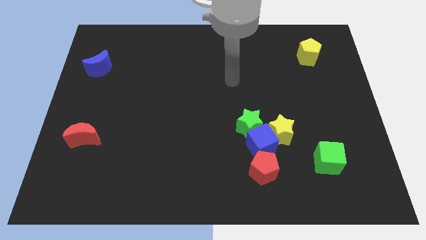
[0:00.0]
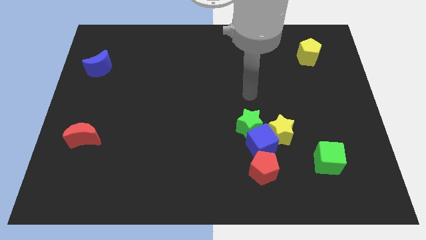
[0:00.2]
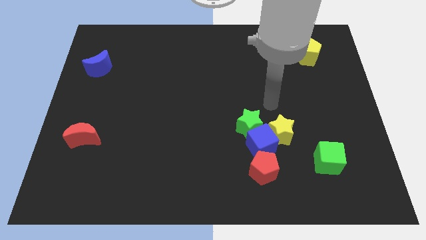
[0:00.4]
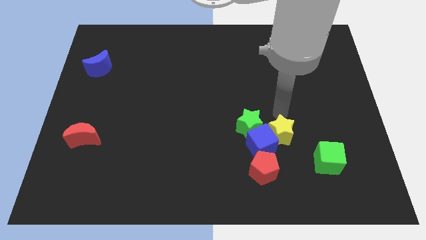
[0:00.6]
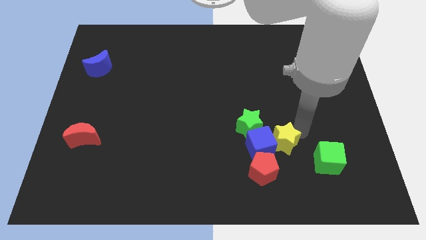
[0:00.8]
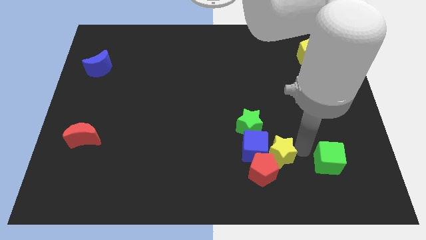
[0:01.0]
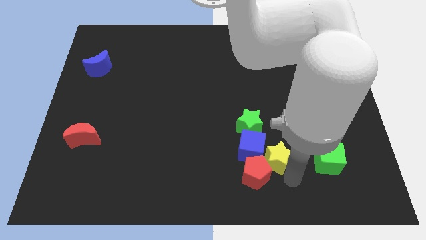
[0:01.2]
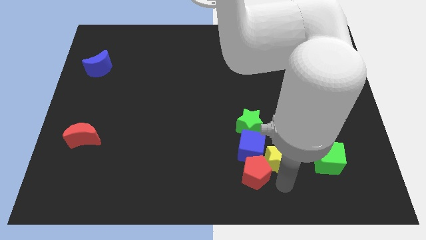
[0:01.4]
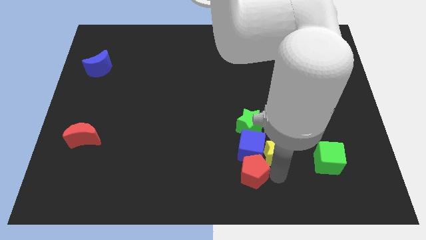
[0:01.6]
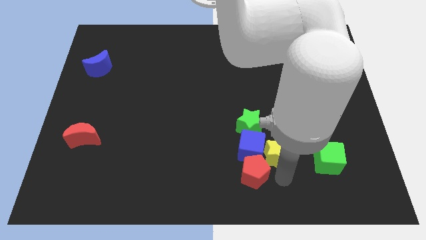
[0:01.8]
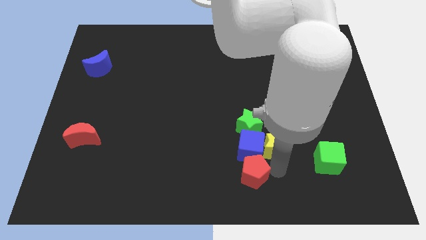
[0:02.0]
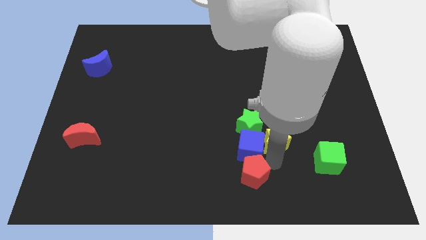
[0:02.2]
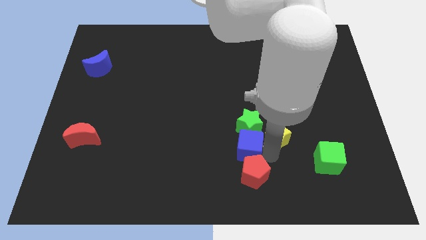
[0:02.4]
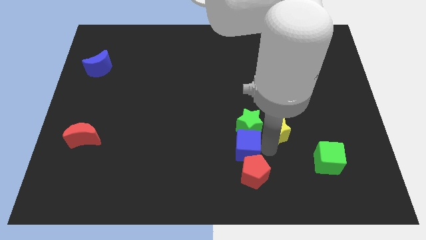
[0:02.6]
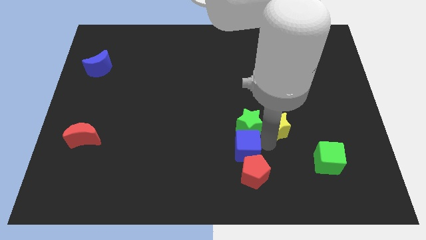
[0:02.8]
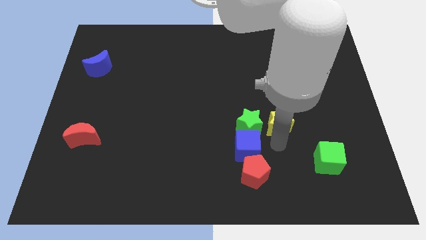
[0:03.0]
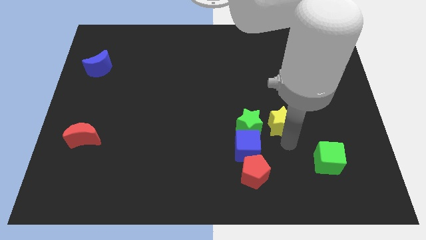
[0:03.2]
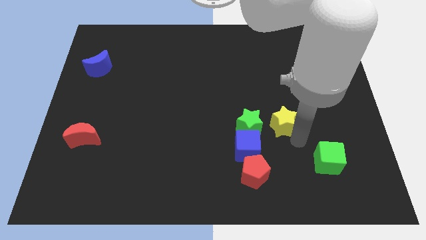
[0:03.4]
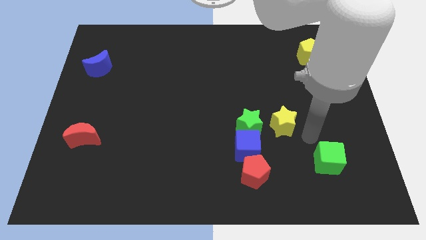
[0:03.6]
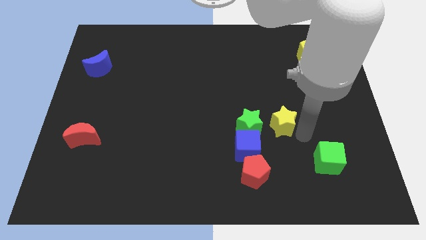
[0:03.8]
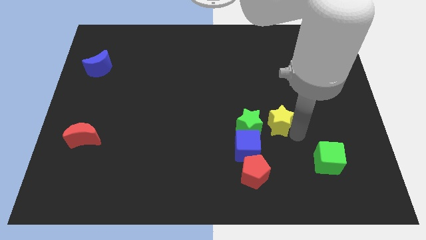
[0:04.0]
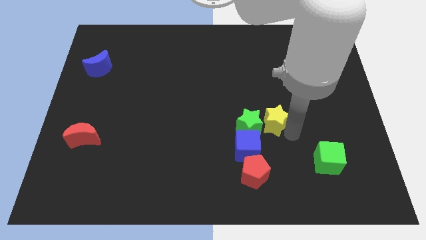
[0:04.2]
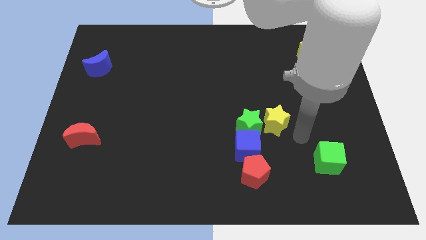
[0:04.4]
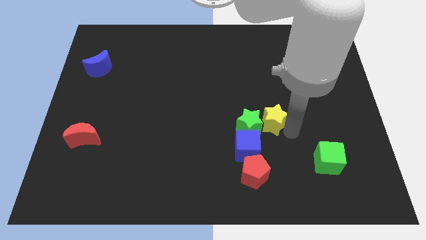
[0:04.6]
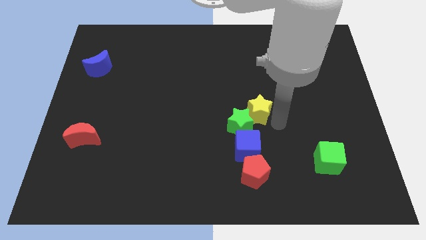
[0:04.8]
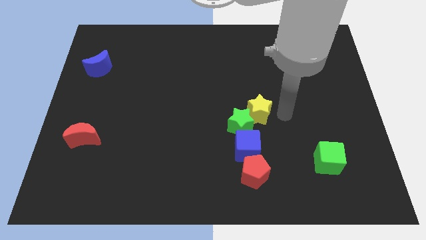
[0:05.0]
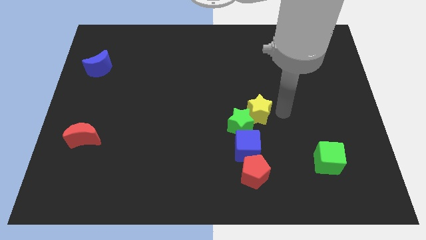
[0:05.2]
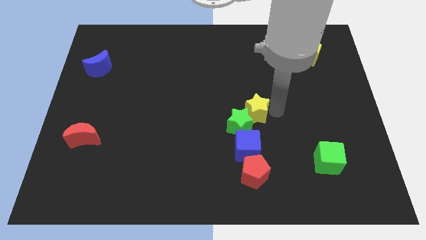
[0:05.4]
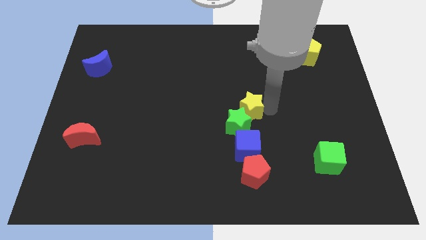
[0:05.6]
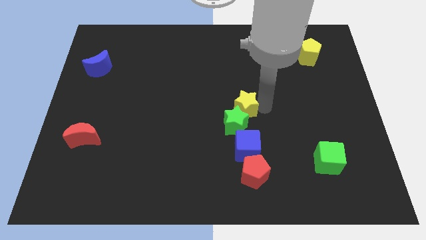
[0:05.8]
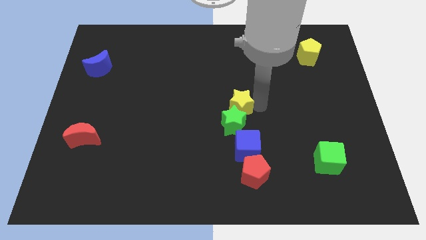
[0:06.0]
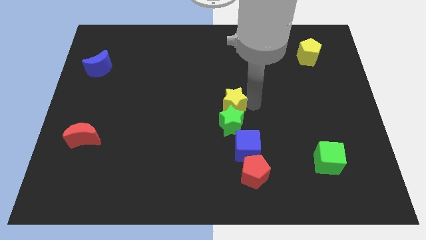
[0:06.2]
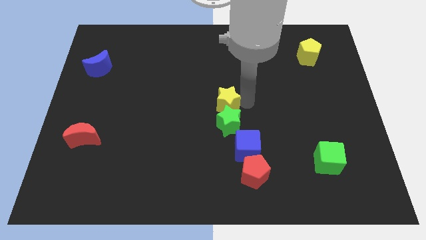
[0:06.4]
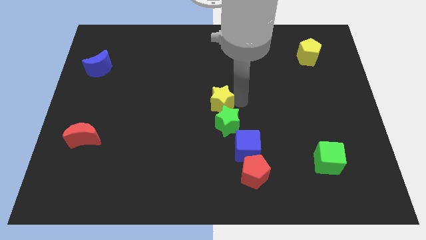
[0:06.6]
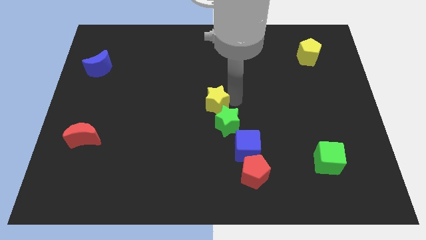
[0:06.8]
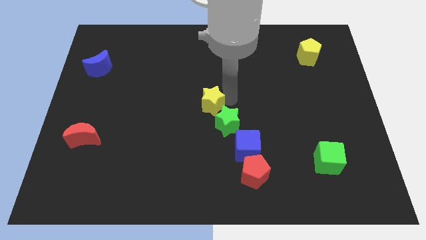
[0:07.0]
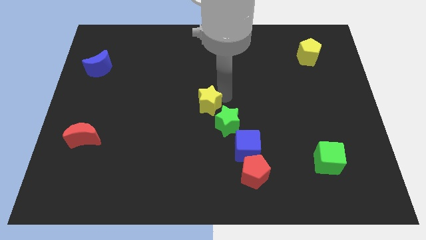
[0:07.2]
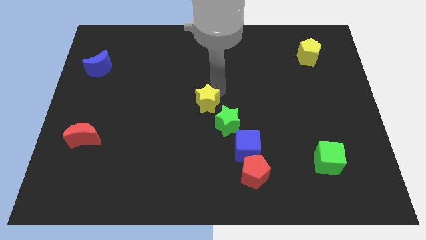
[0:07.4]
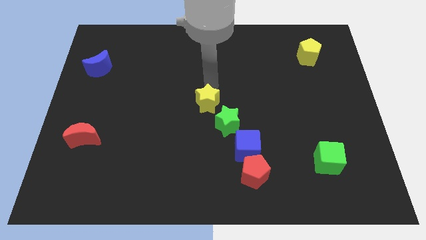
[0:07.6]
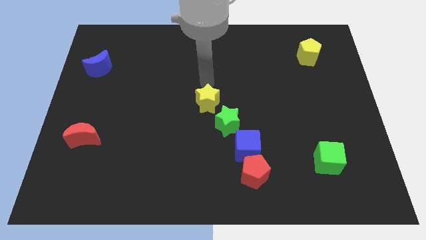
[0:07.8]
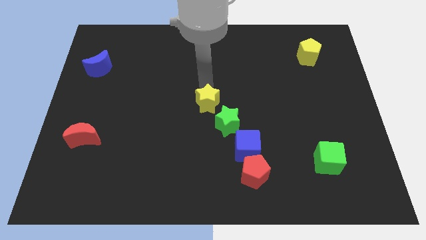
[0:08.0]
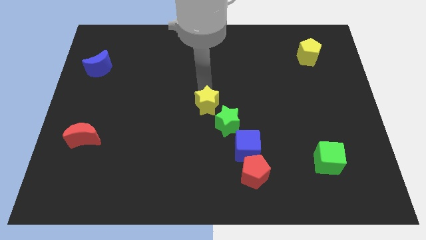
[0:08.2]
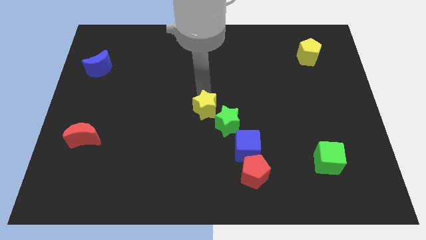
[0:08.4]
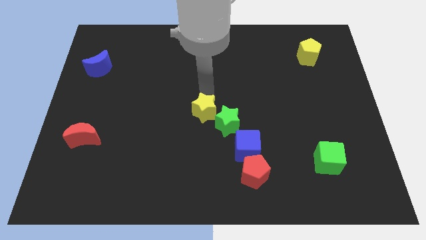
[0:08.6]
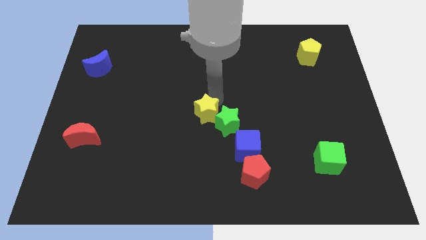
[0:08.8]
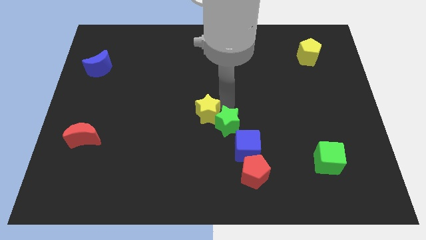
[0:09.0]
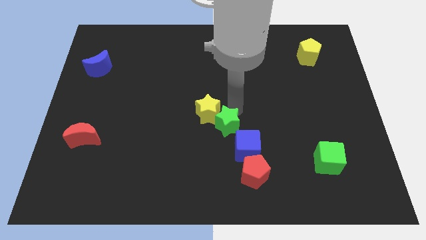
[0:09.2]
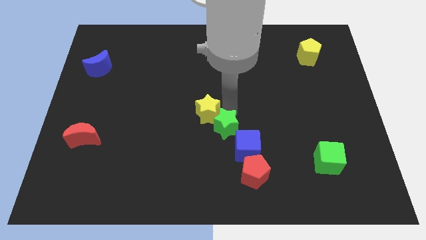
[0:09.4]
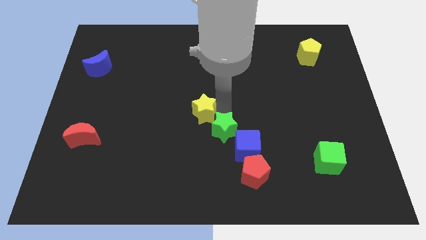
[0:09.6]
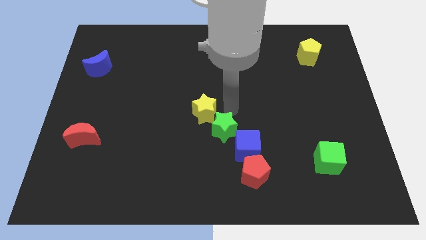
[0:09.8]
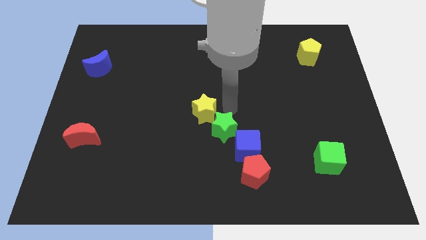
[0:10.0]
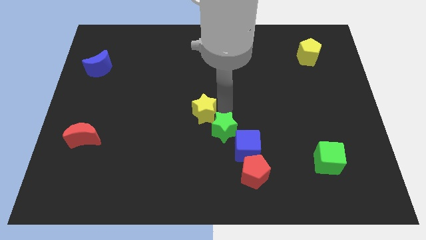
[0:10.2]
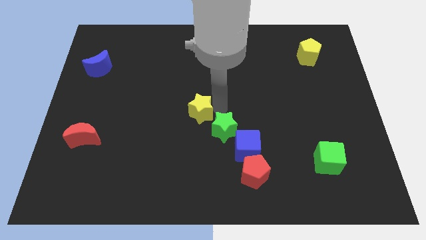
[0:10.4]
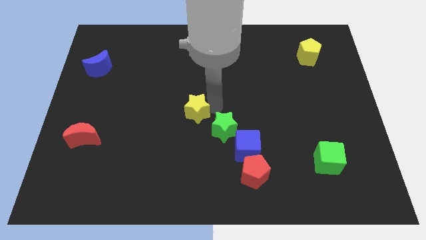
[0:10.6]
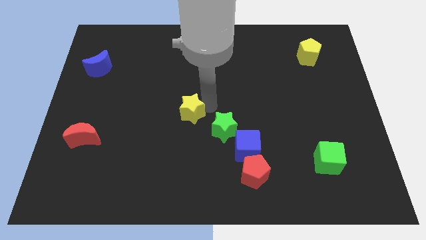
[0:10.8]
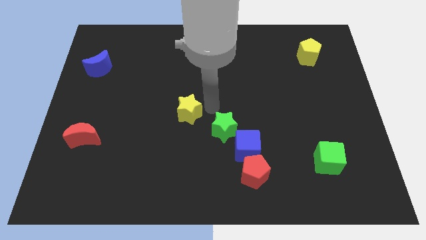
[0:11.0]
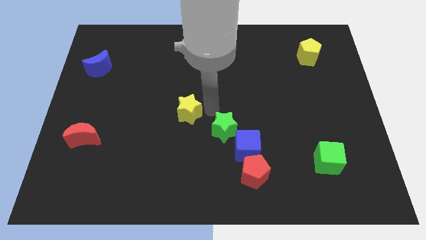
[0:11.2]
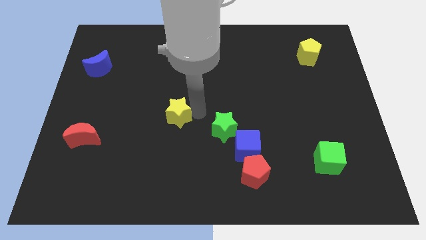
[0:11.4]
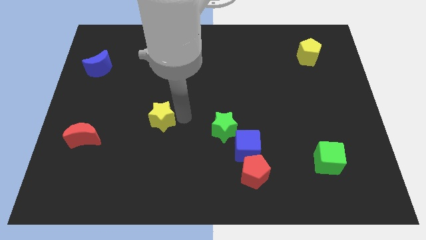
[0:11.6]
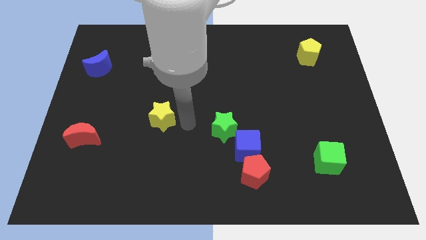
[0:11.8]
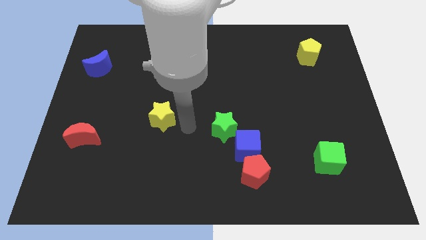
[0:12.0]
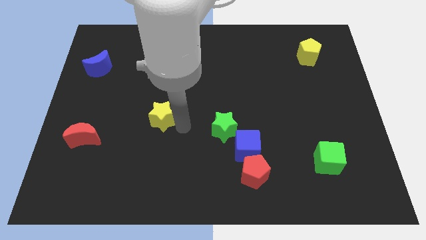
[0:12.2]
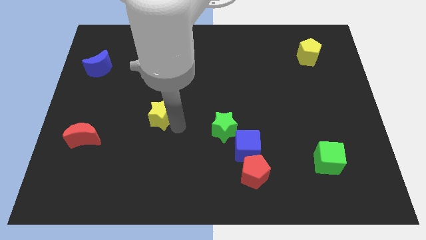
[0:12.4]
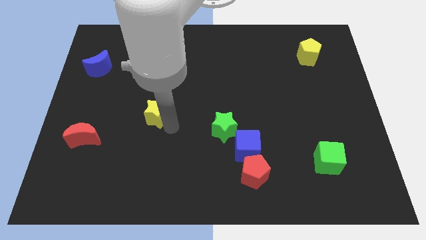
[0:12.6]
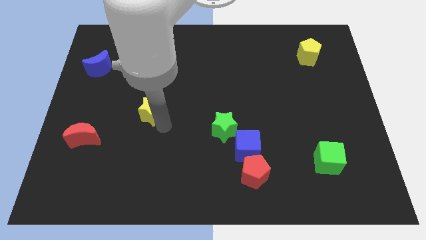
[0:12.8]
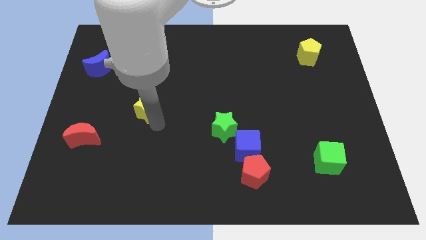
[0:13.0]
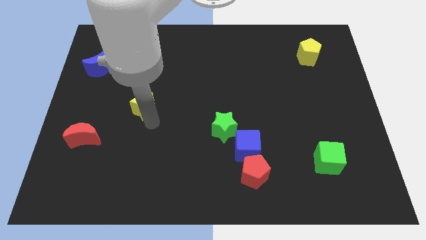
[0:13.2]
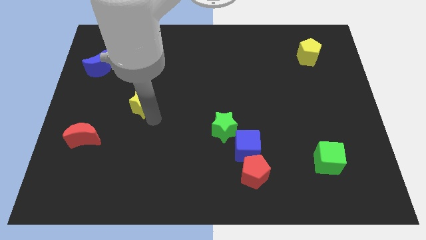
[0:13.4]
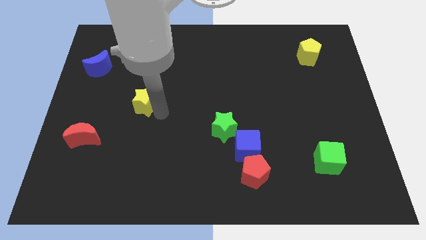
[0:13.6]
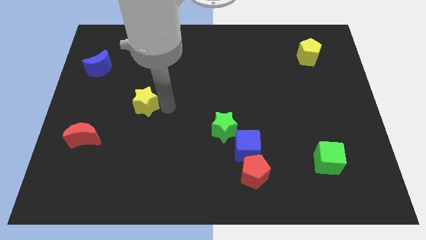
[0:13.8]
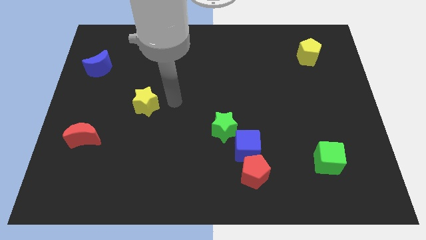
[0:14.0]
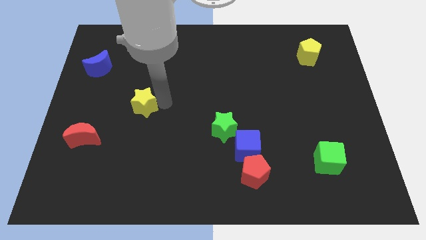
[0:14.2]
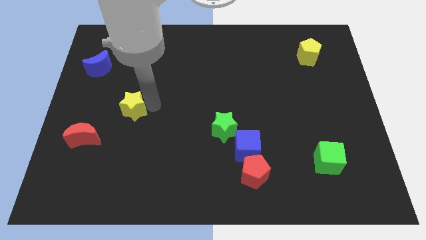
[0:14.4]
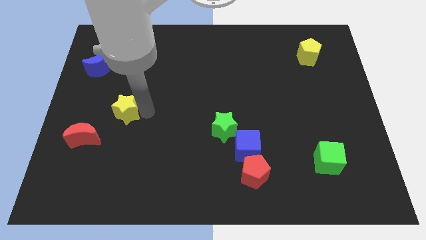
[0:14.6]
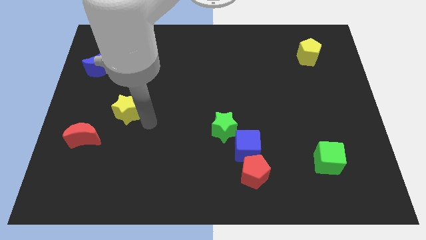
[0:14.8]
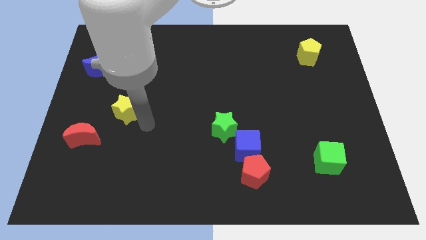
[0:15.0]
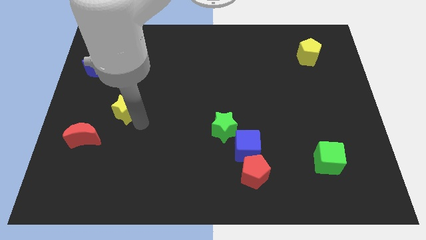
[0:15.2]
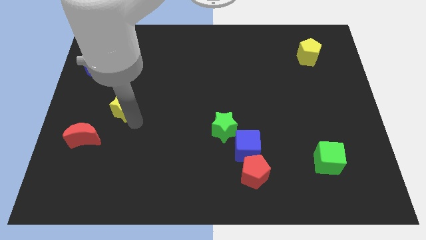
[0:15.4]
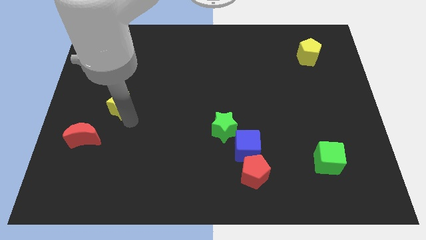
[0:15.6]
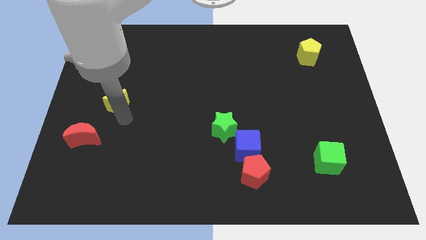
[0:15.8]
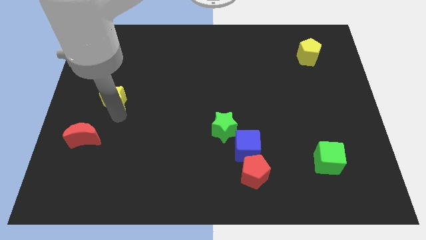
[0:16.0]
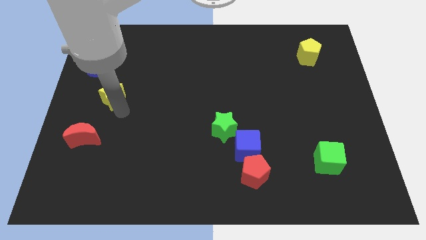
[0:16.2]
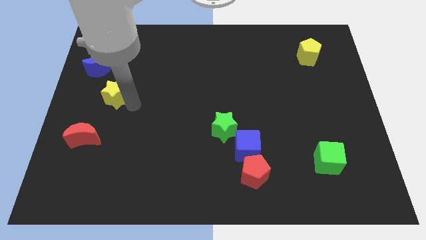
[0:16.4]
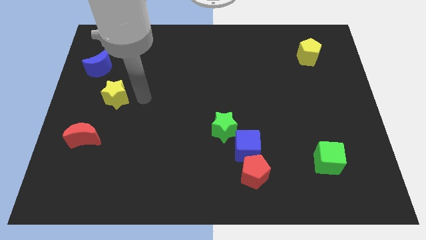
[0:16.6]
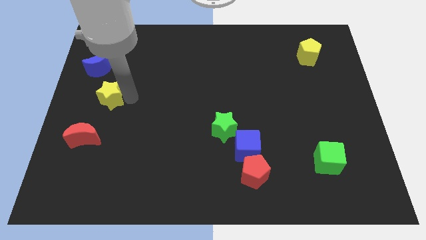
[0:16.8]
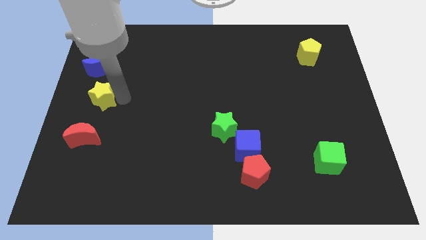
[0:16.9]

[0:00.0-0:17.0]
put the yellow star to the left side of the board
